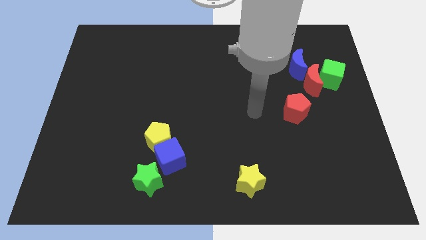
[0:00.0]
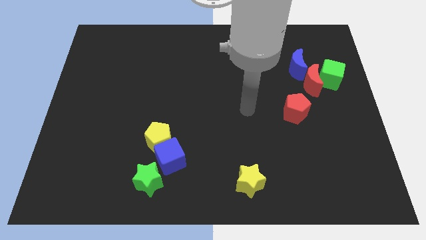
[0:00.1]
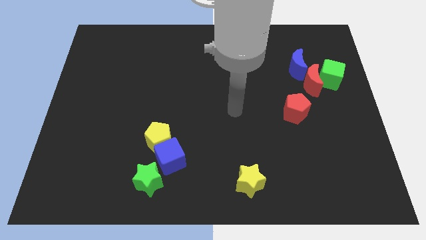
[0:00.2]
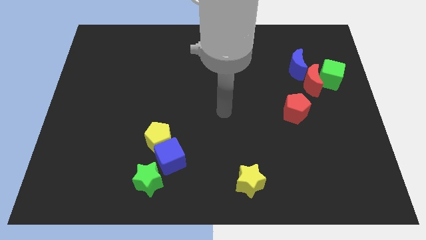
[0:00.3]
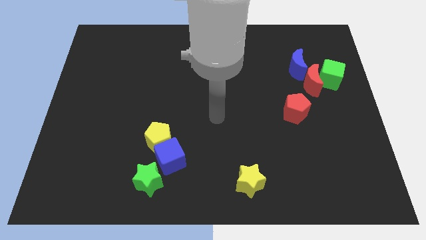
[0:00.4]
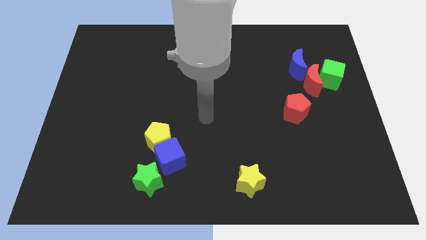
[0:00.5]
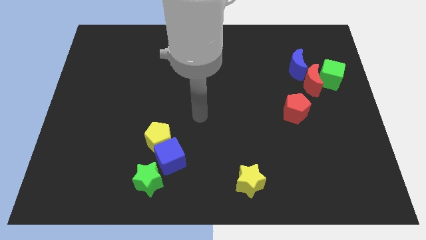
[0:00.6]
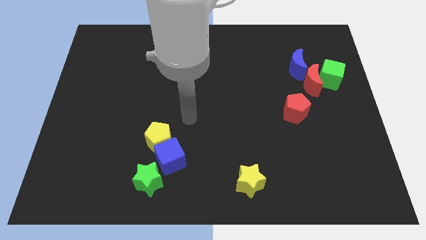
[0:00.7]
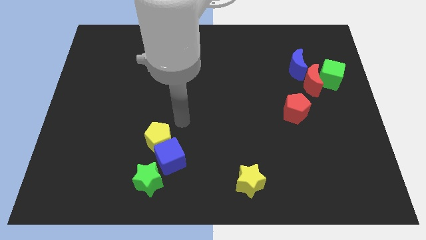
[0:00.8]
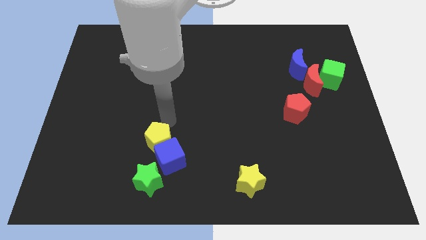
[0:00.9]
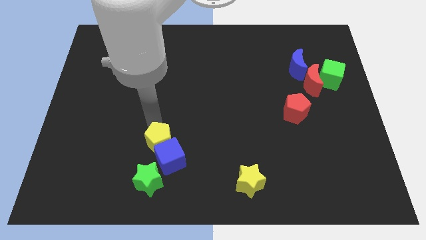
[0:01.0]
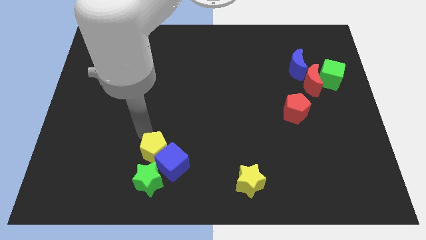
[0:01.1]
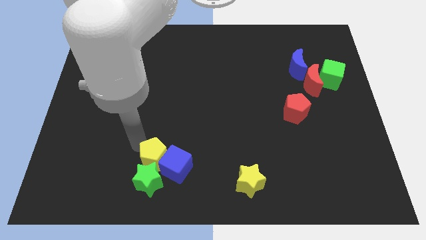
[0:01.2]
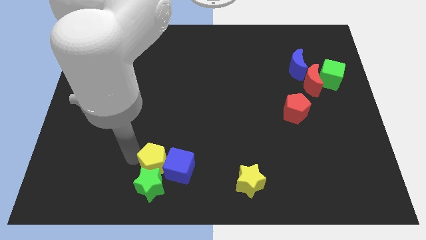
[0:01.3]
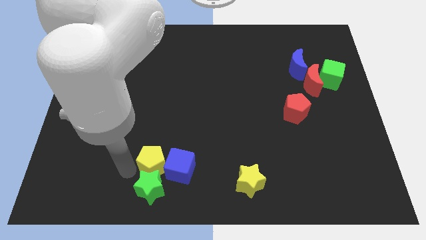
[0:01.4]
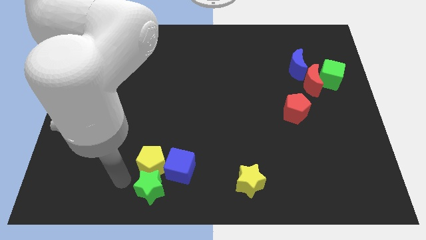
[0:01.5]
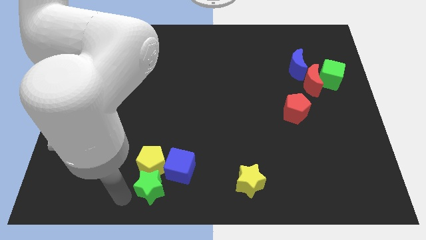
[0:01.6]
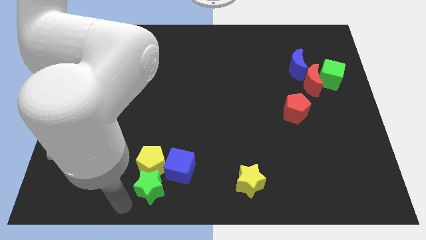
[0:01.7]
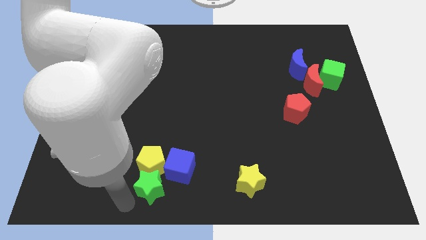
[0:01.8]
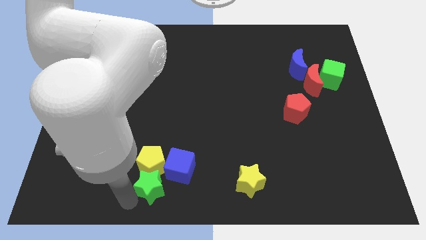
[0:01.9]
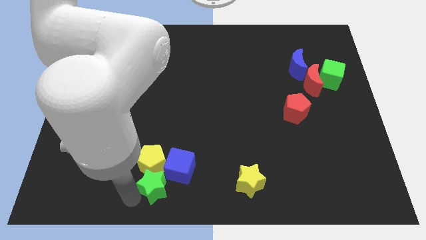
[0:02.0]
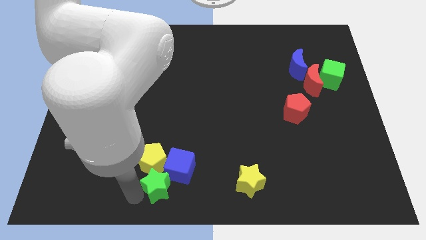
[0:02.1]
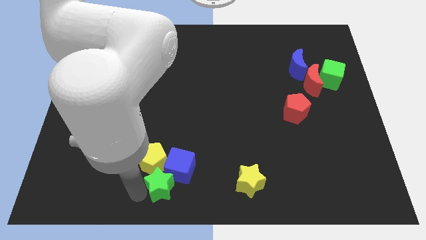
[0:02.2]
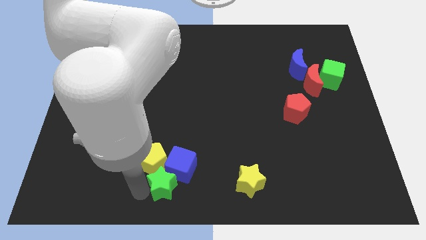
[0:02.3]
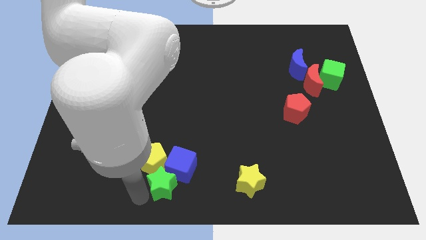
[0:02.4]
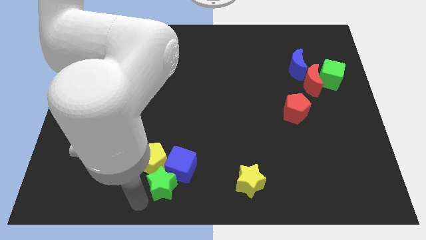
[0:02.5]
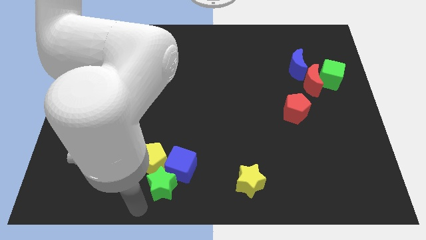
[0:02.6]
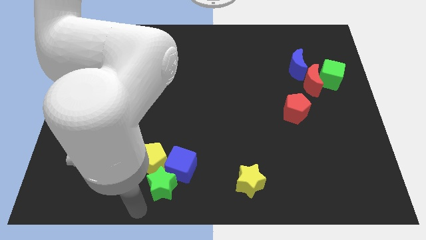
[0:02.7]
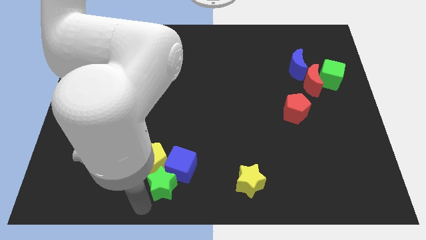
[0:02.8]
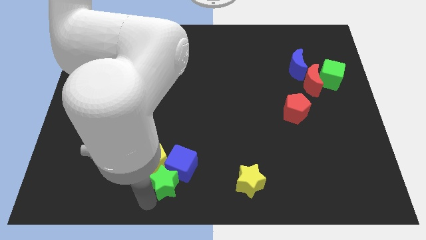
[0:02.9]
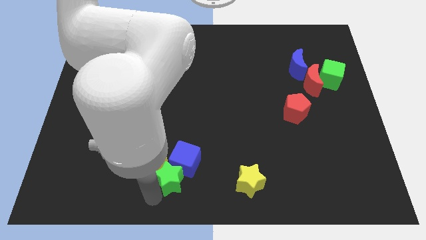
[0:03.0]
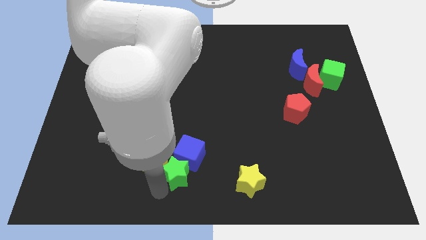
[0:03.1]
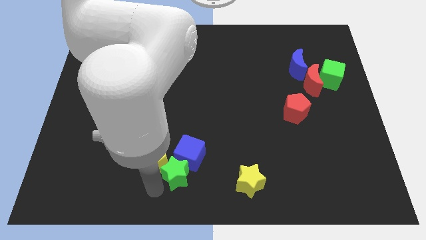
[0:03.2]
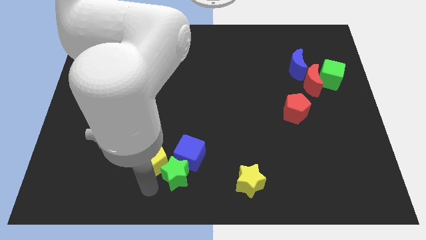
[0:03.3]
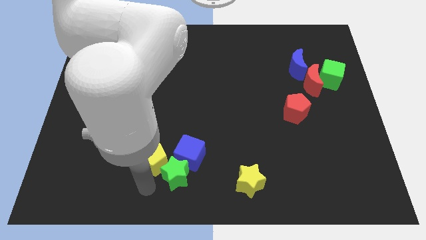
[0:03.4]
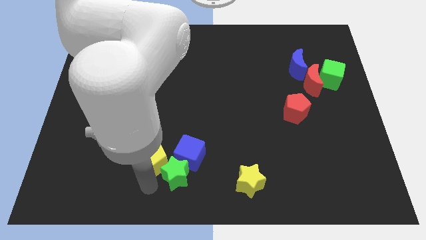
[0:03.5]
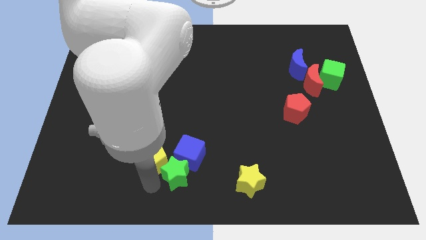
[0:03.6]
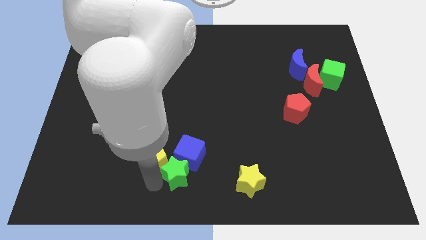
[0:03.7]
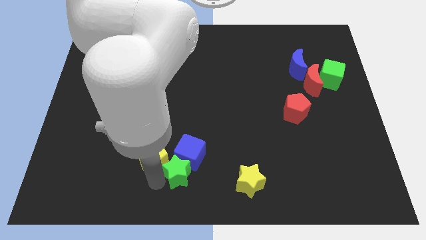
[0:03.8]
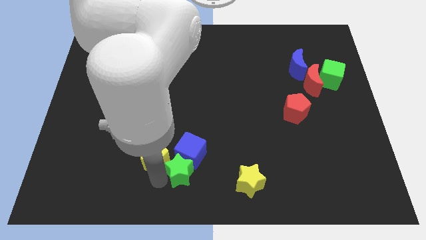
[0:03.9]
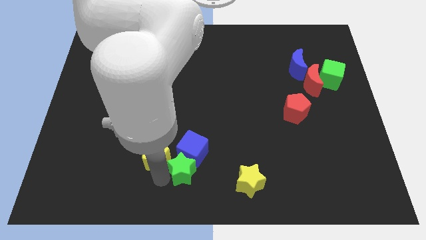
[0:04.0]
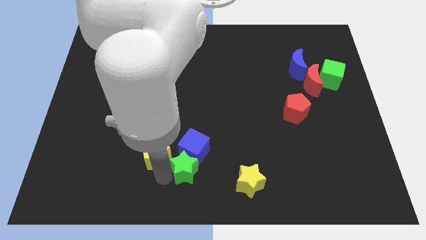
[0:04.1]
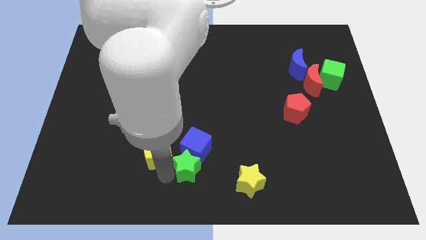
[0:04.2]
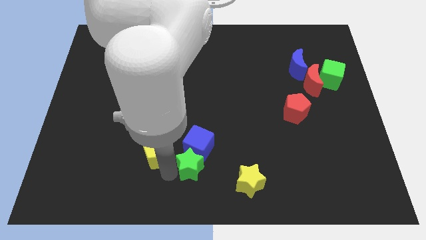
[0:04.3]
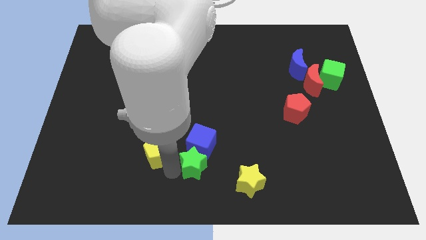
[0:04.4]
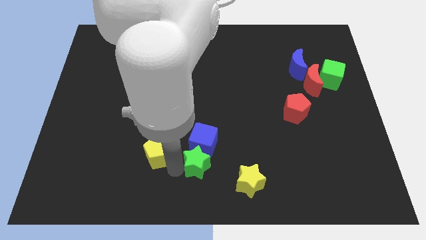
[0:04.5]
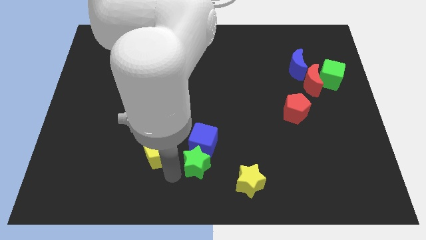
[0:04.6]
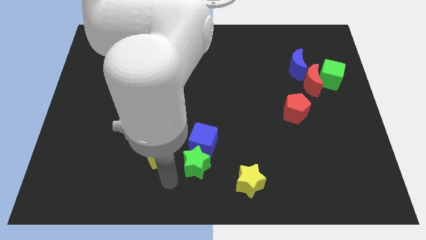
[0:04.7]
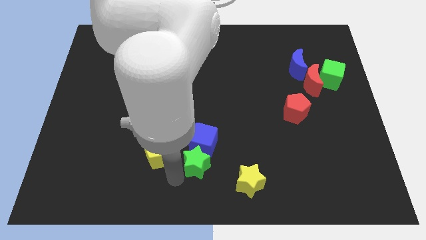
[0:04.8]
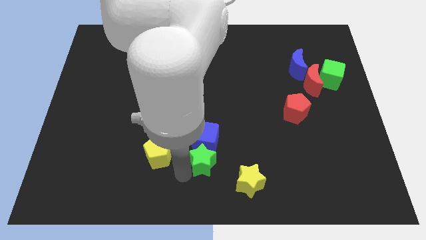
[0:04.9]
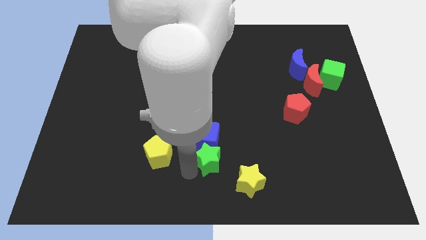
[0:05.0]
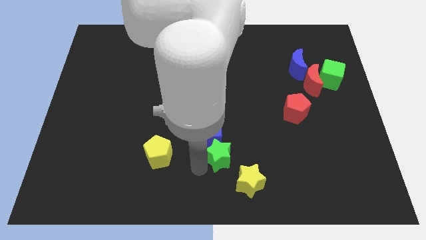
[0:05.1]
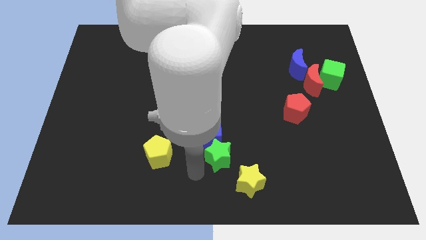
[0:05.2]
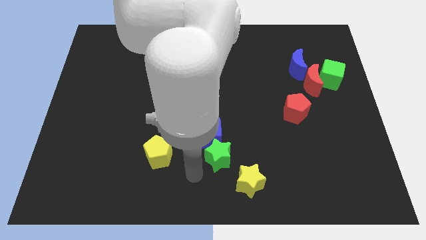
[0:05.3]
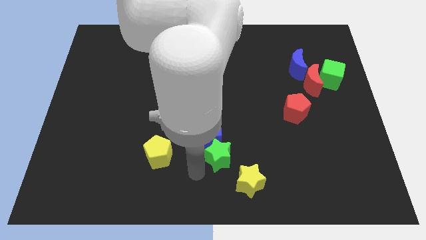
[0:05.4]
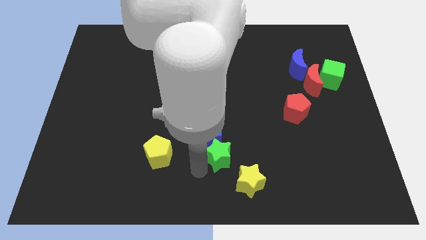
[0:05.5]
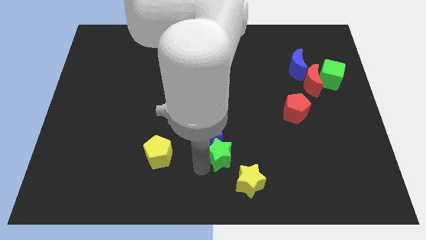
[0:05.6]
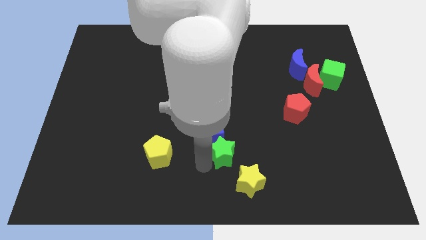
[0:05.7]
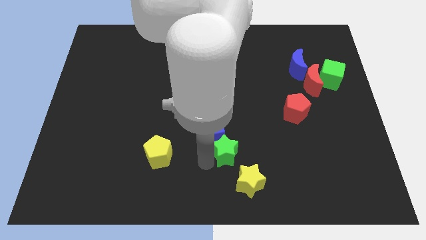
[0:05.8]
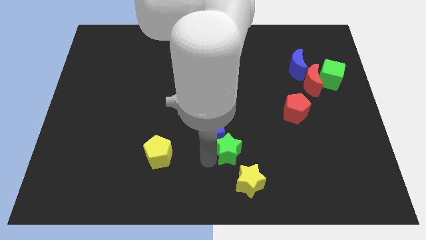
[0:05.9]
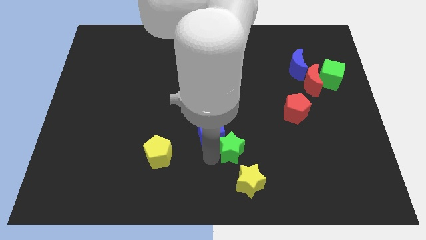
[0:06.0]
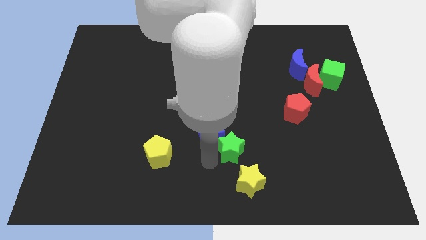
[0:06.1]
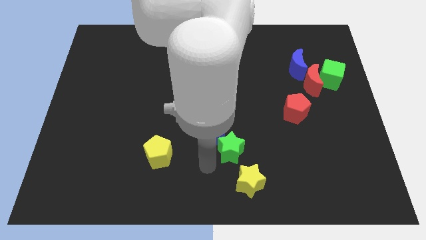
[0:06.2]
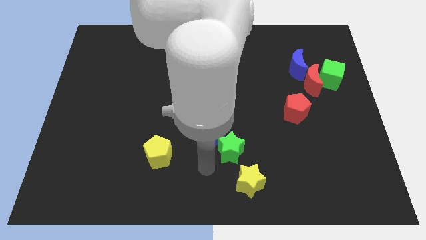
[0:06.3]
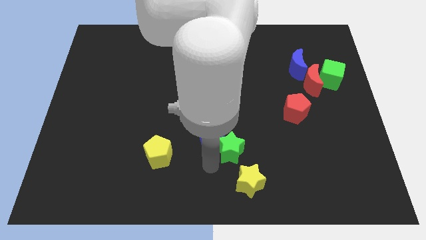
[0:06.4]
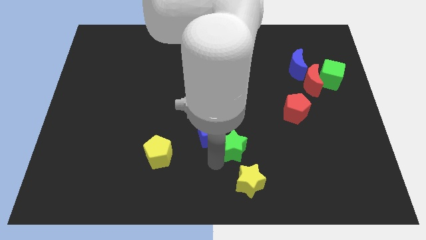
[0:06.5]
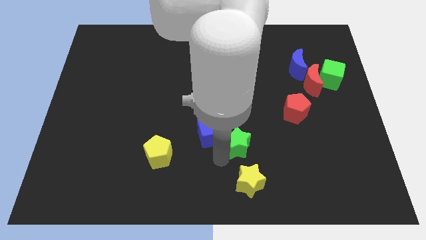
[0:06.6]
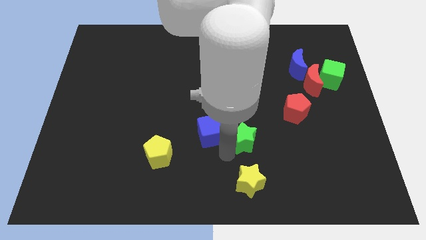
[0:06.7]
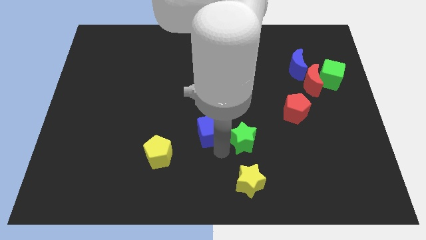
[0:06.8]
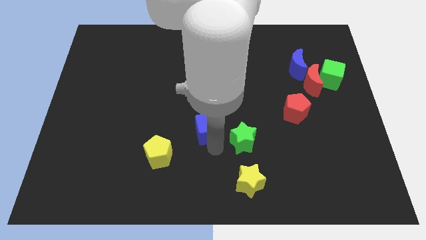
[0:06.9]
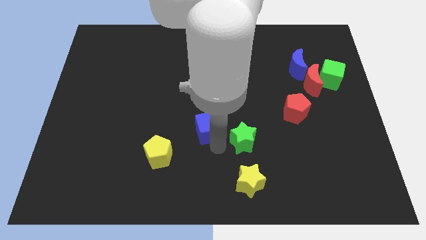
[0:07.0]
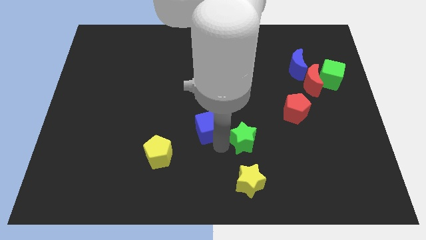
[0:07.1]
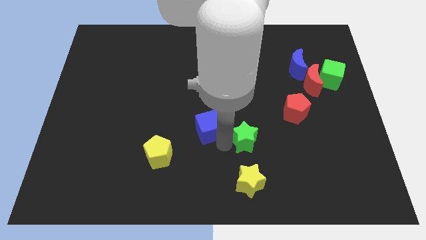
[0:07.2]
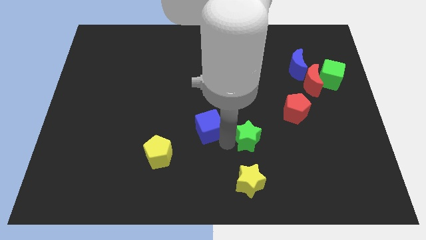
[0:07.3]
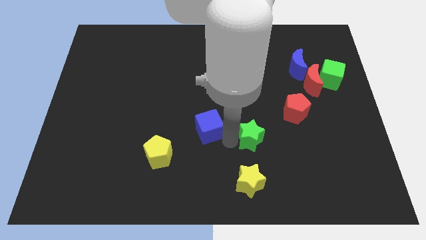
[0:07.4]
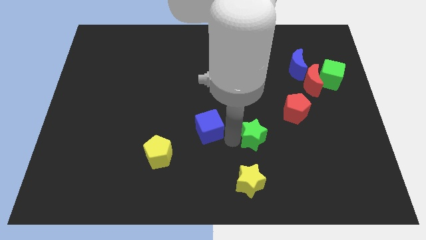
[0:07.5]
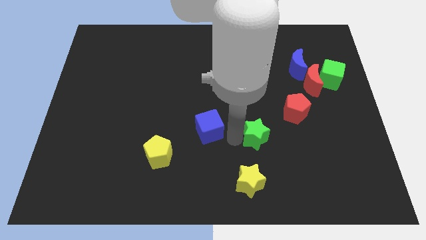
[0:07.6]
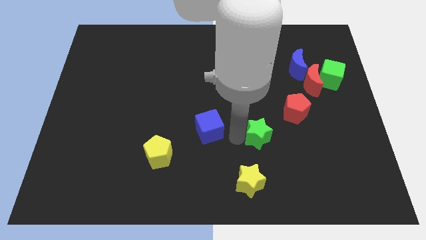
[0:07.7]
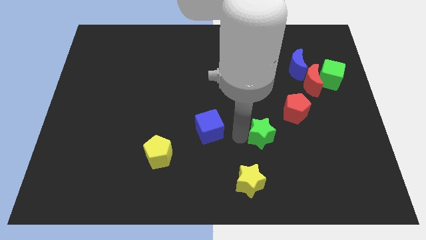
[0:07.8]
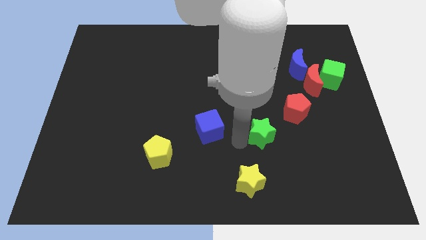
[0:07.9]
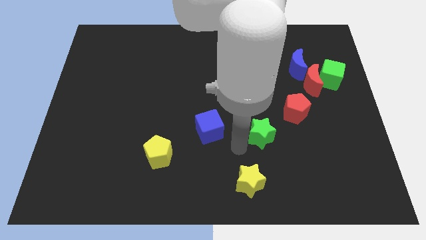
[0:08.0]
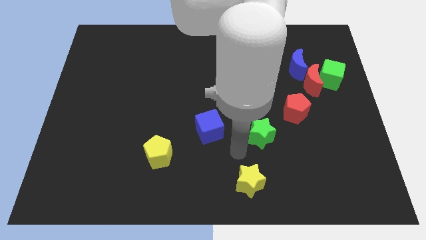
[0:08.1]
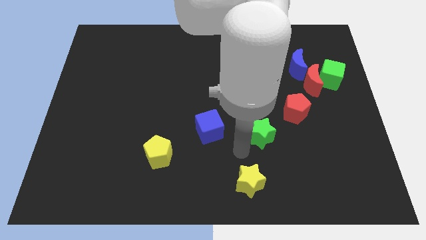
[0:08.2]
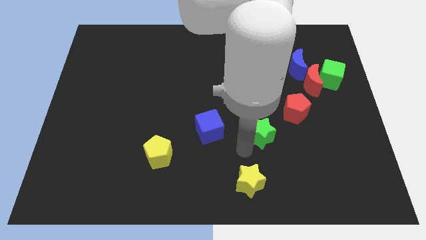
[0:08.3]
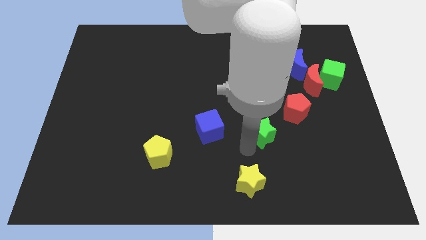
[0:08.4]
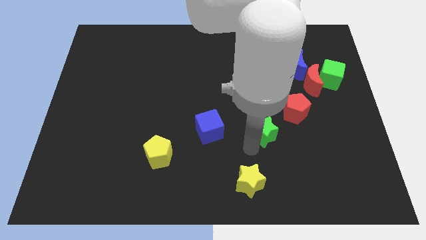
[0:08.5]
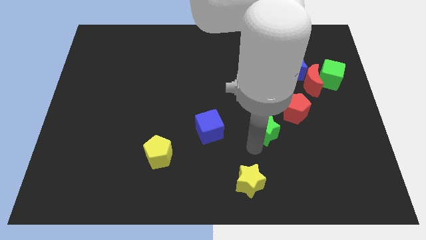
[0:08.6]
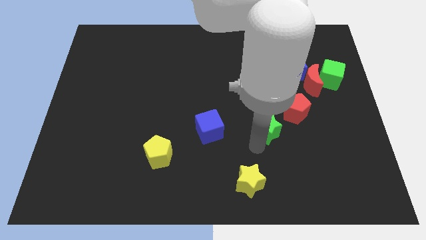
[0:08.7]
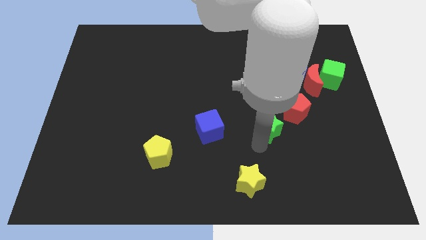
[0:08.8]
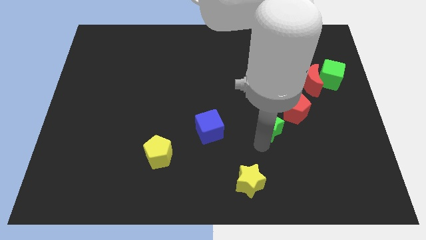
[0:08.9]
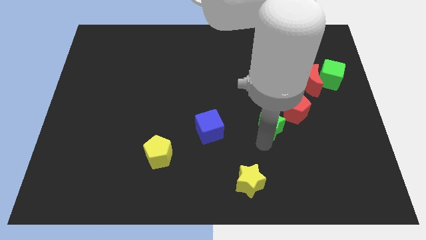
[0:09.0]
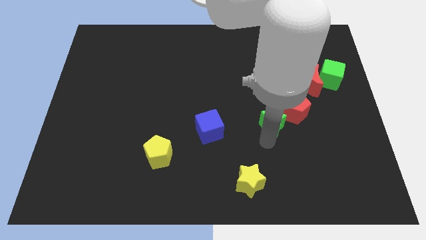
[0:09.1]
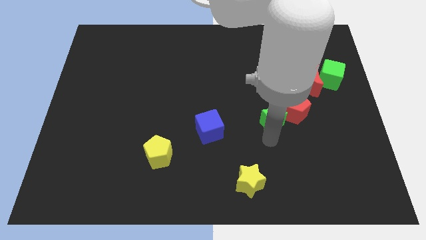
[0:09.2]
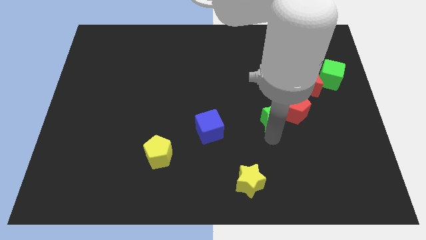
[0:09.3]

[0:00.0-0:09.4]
move the green star close to the red pentagon
